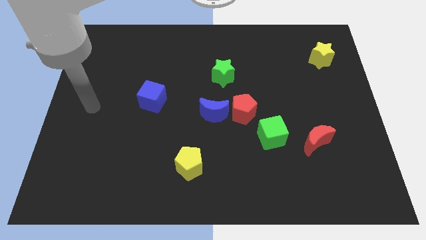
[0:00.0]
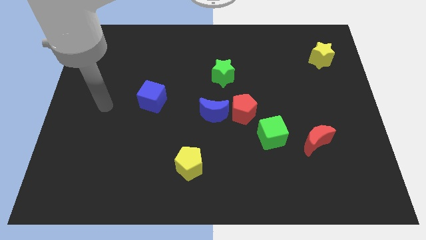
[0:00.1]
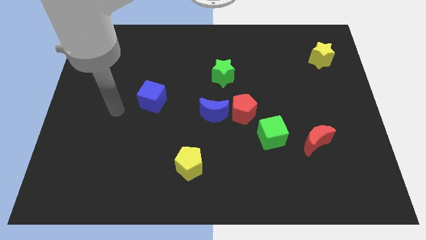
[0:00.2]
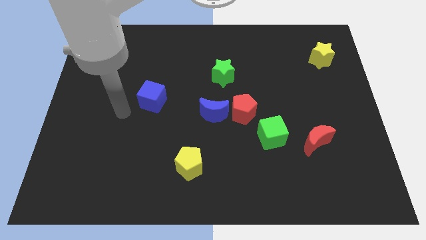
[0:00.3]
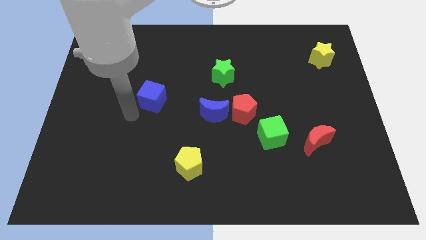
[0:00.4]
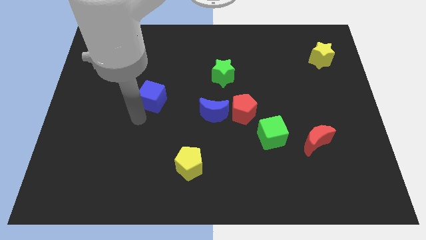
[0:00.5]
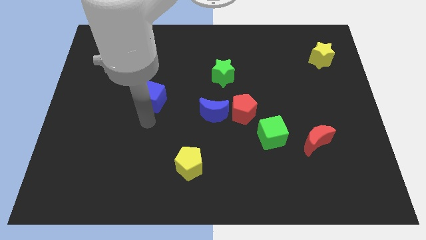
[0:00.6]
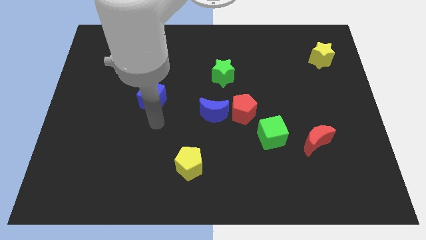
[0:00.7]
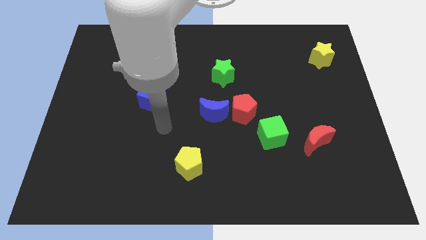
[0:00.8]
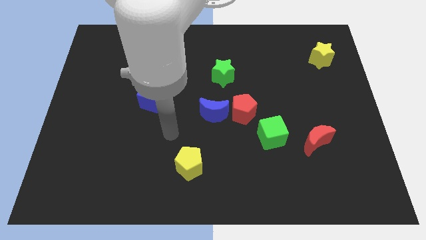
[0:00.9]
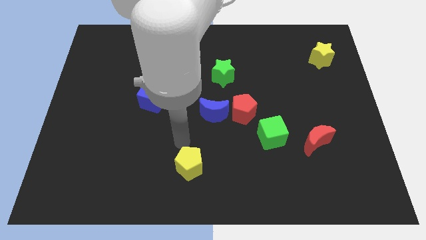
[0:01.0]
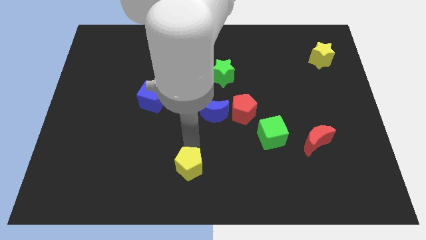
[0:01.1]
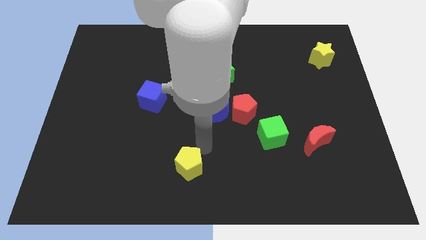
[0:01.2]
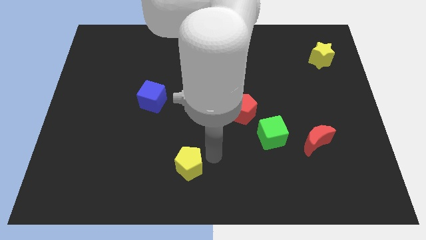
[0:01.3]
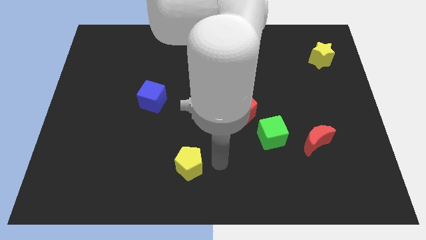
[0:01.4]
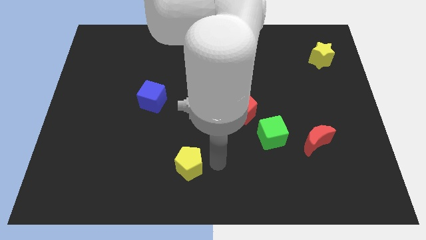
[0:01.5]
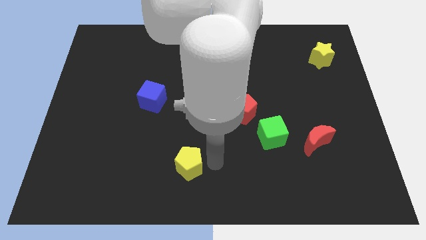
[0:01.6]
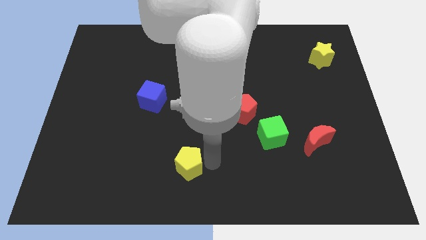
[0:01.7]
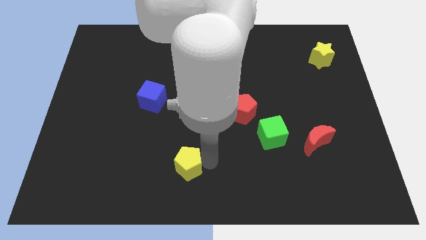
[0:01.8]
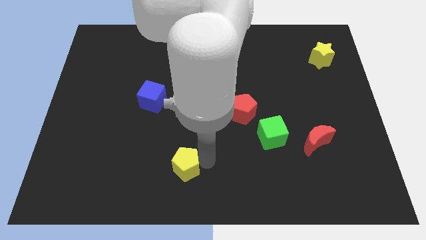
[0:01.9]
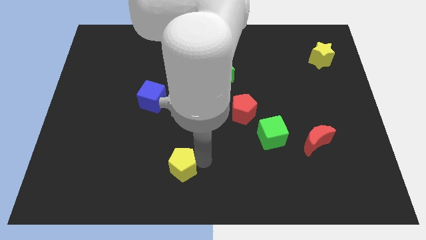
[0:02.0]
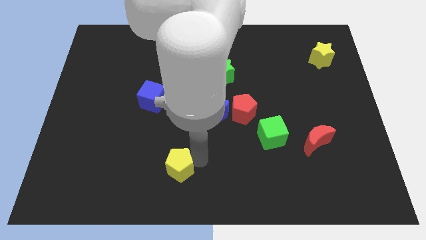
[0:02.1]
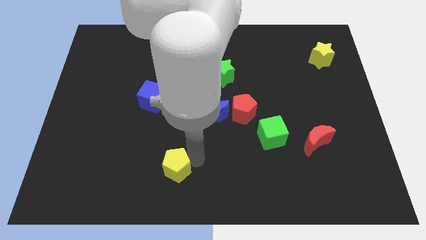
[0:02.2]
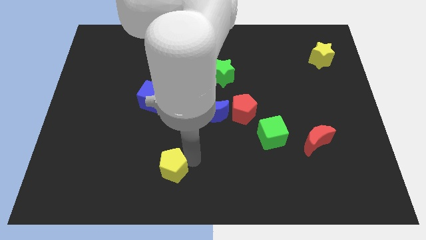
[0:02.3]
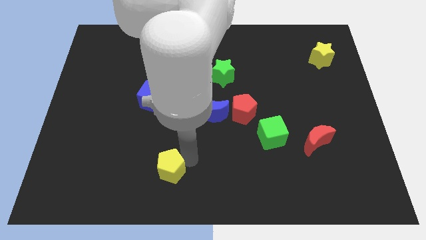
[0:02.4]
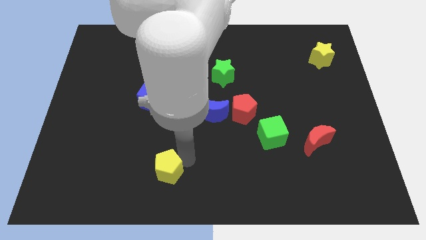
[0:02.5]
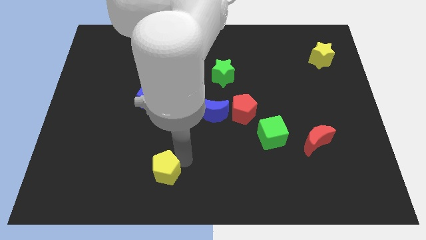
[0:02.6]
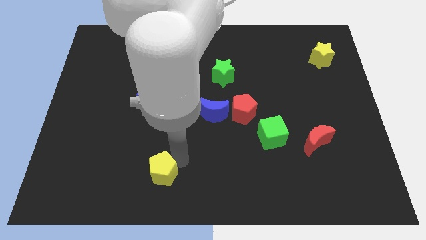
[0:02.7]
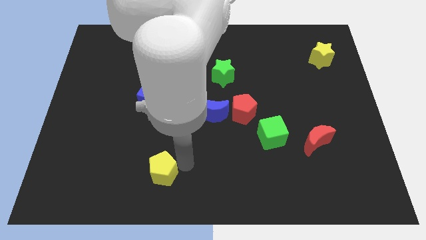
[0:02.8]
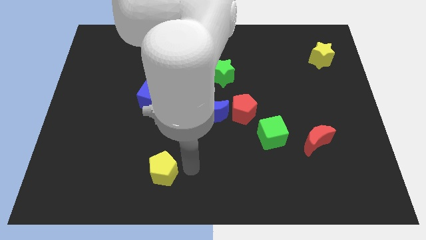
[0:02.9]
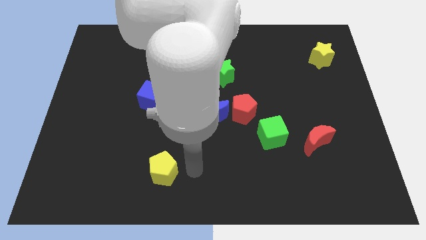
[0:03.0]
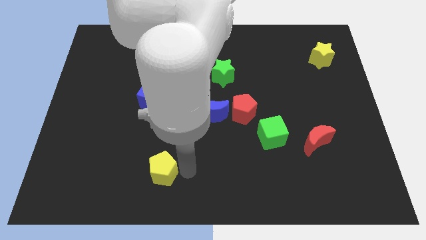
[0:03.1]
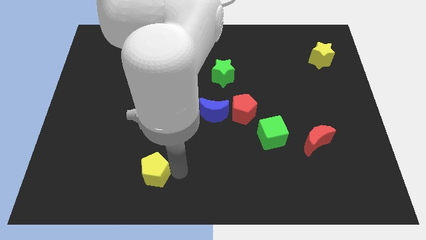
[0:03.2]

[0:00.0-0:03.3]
push the yellow pentagon somewhat to the left

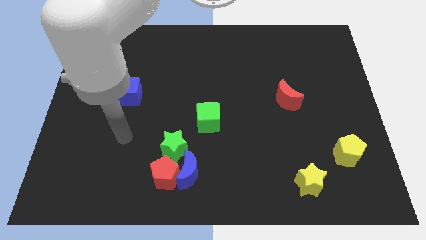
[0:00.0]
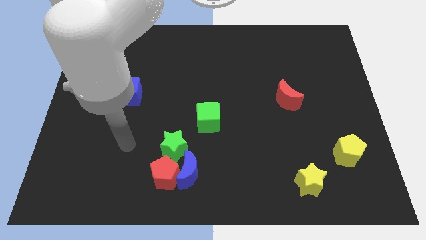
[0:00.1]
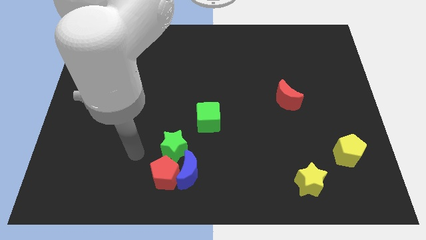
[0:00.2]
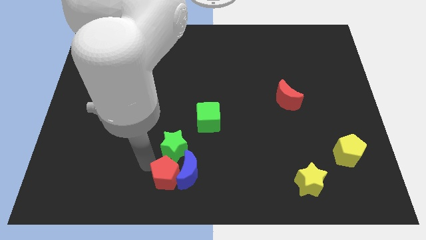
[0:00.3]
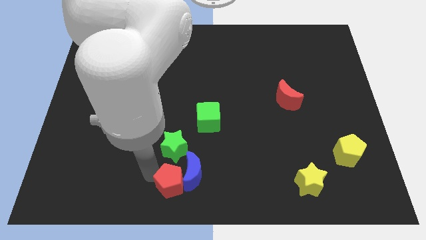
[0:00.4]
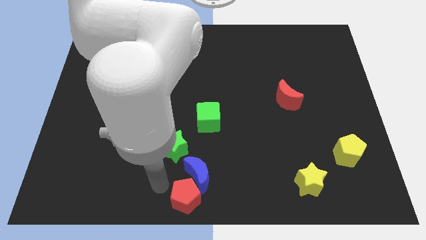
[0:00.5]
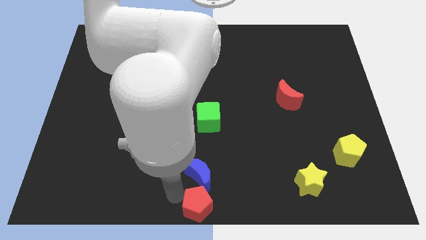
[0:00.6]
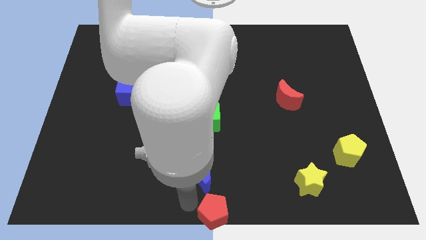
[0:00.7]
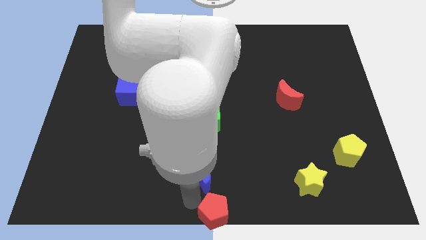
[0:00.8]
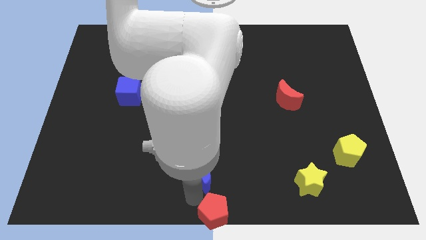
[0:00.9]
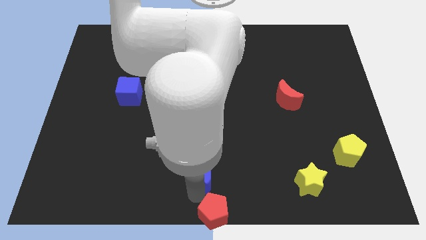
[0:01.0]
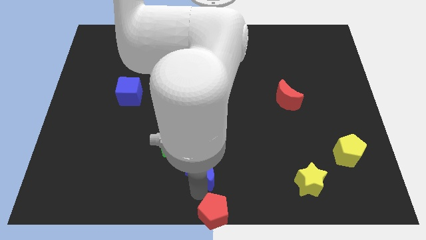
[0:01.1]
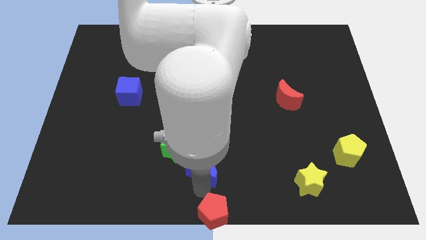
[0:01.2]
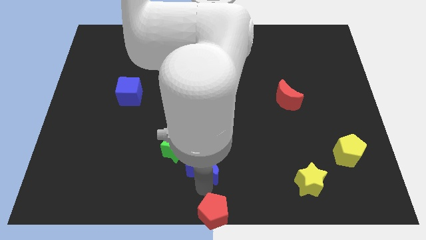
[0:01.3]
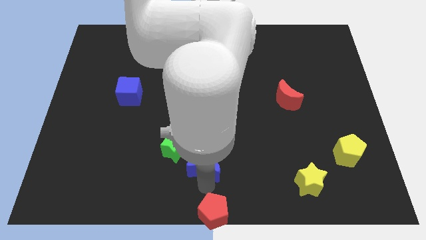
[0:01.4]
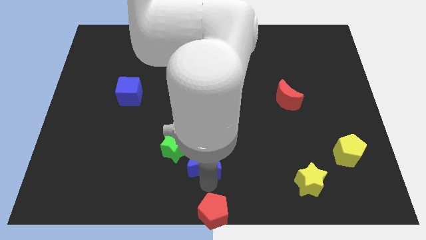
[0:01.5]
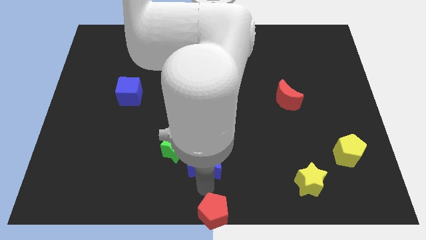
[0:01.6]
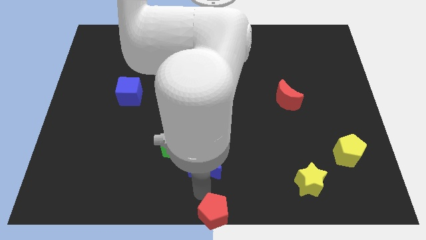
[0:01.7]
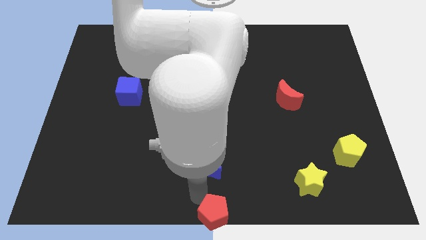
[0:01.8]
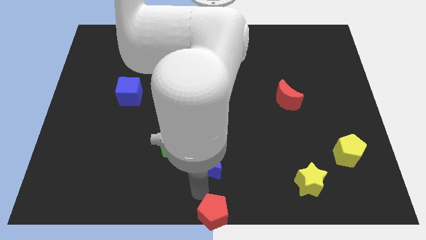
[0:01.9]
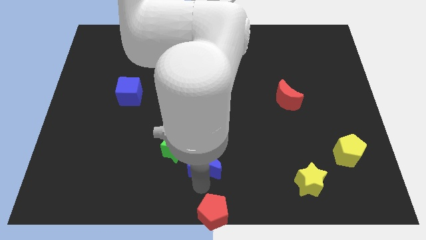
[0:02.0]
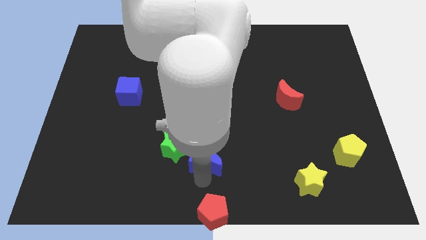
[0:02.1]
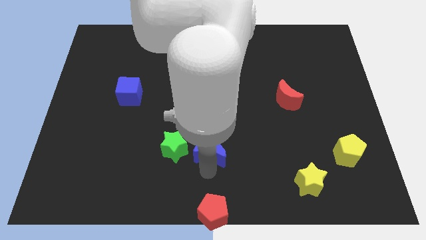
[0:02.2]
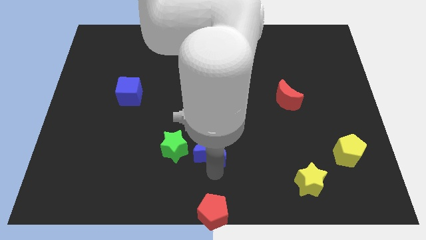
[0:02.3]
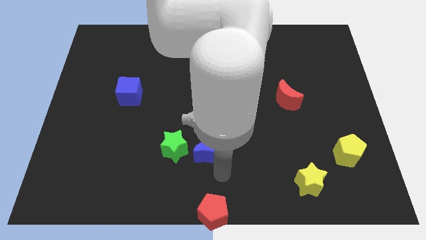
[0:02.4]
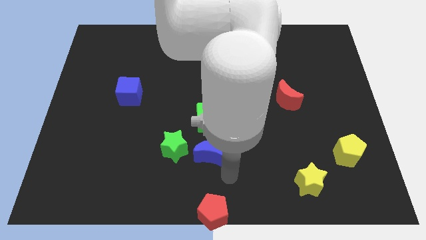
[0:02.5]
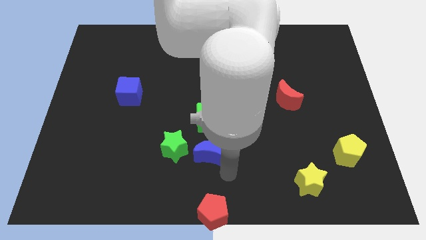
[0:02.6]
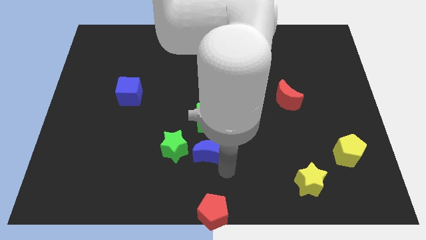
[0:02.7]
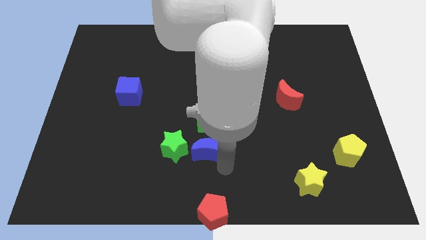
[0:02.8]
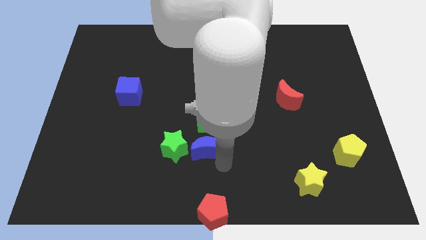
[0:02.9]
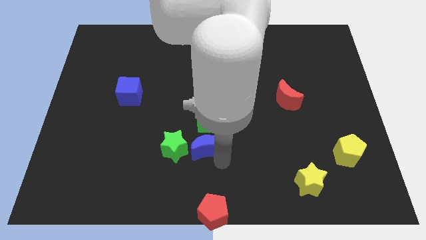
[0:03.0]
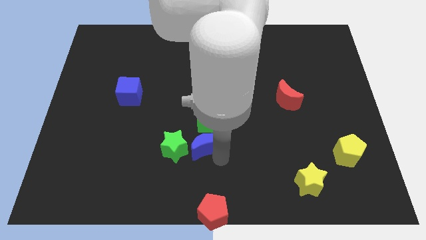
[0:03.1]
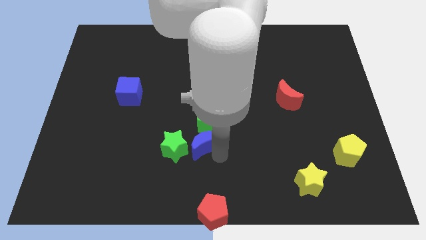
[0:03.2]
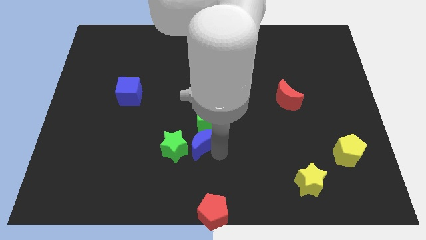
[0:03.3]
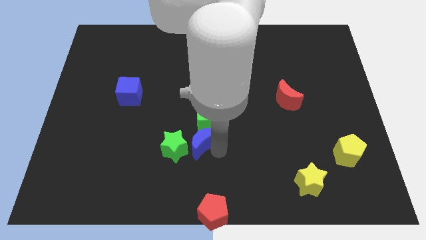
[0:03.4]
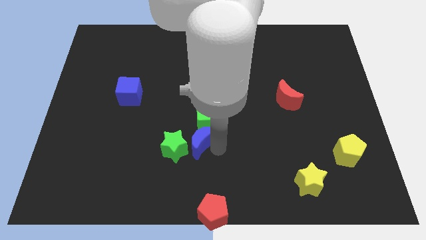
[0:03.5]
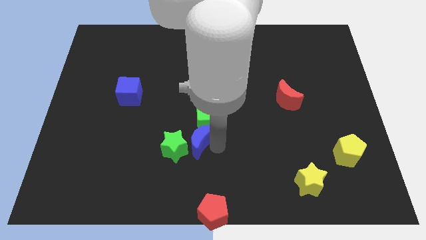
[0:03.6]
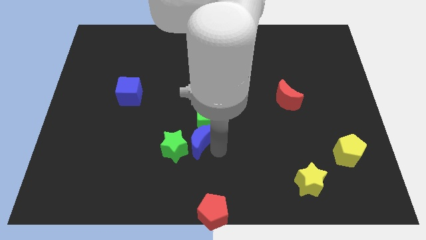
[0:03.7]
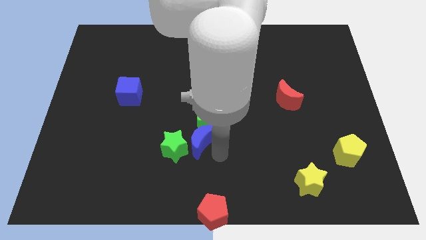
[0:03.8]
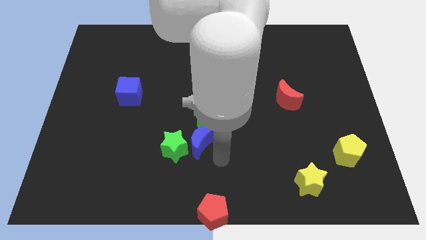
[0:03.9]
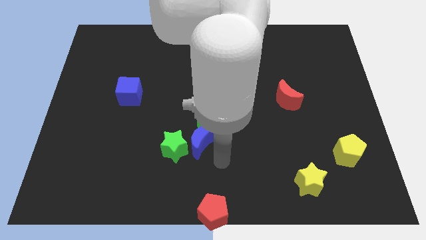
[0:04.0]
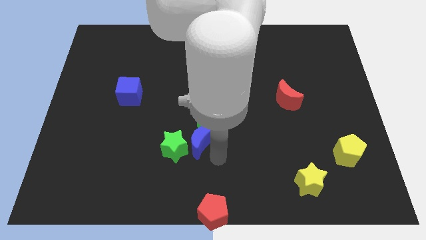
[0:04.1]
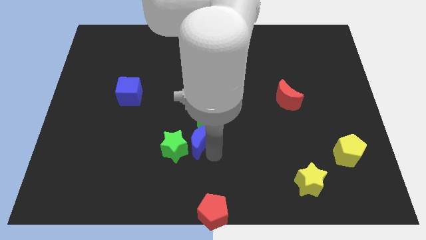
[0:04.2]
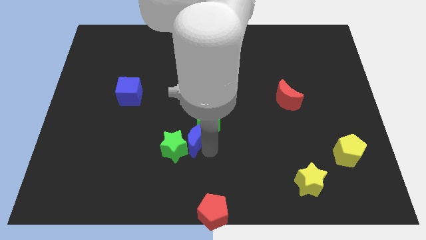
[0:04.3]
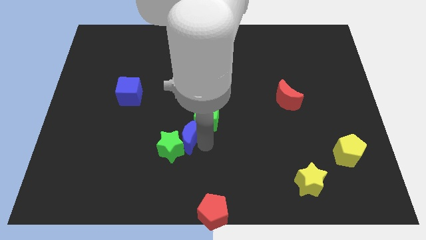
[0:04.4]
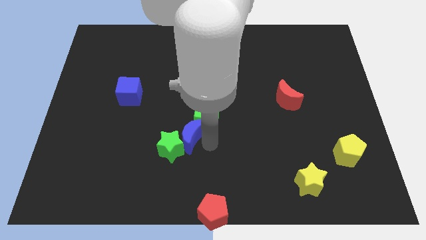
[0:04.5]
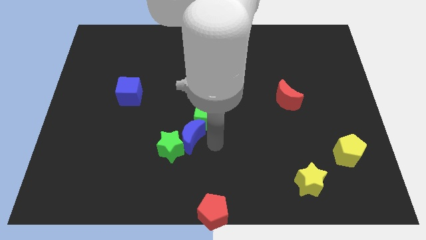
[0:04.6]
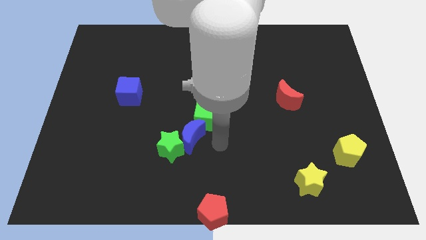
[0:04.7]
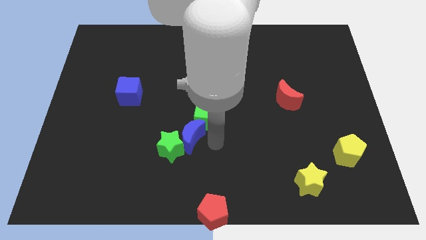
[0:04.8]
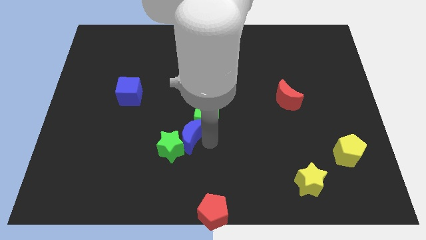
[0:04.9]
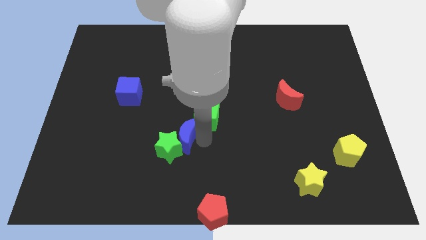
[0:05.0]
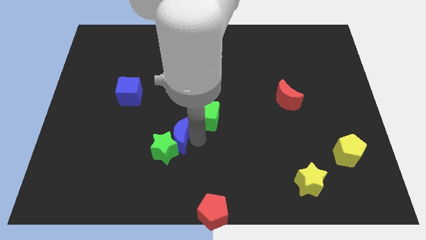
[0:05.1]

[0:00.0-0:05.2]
move the blue moon up and left somewhat
